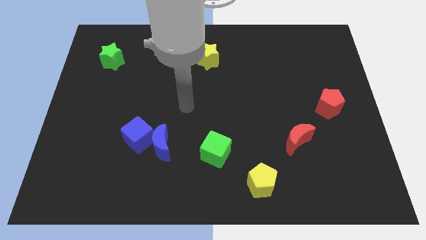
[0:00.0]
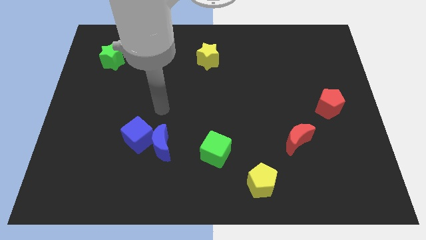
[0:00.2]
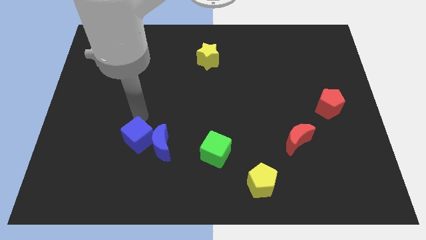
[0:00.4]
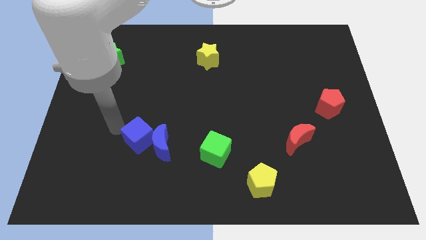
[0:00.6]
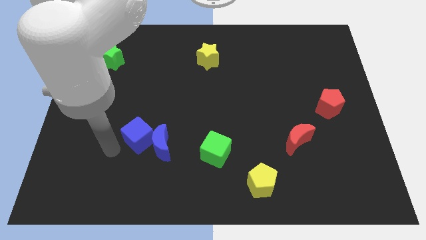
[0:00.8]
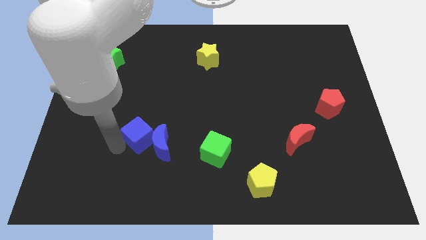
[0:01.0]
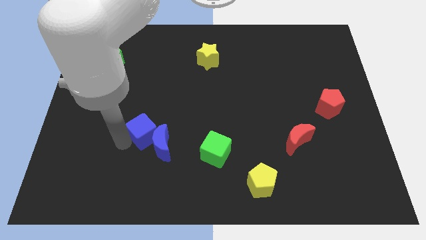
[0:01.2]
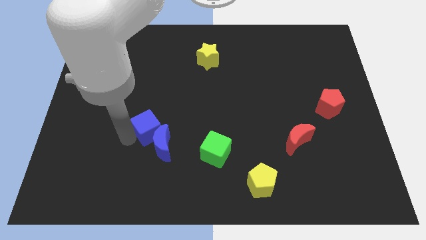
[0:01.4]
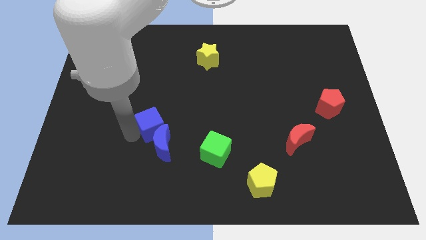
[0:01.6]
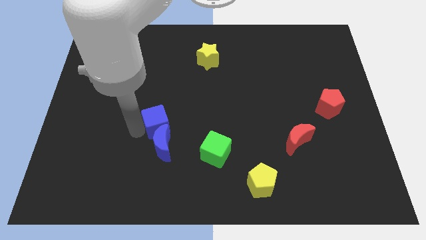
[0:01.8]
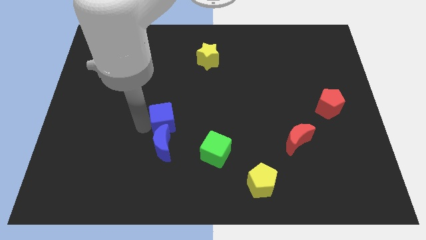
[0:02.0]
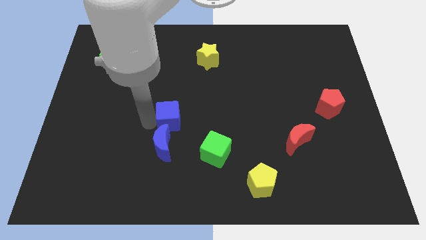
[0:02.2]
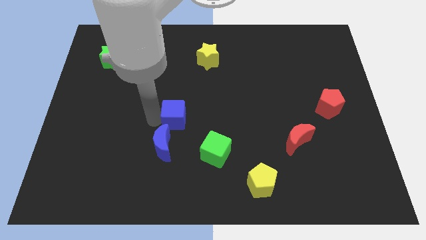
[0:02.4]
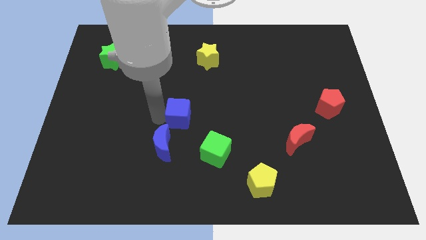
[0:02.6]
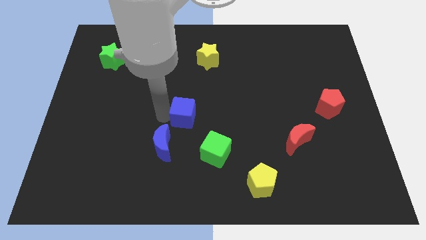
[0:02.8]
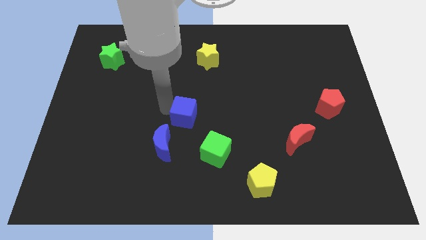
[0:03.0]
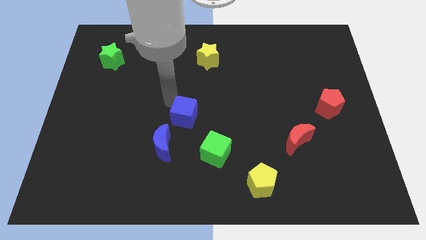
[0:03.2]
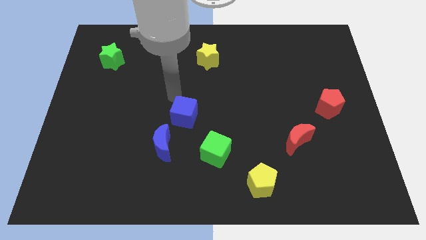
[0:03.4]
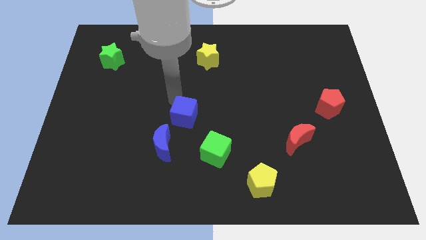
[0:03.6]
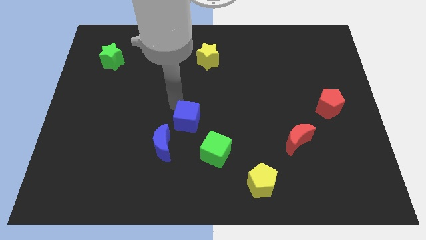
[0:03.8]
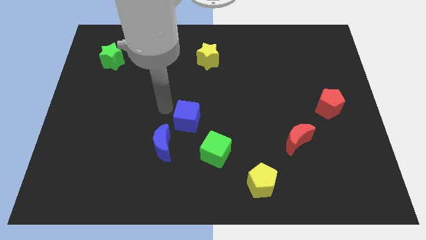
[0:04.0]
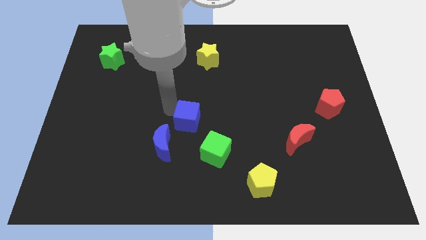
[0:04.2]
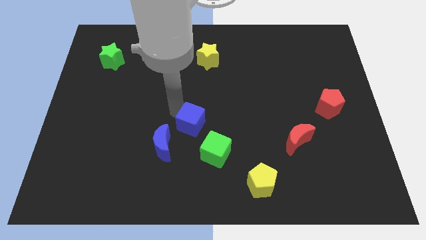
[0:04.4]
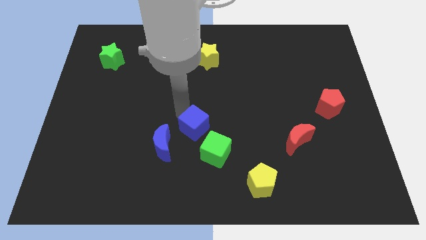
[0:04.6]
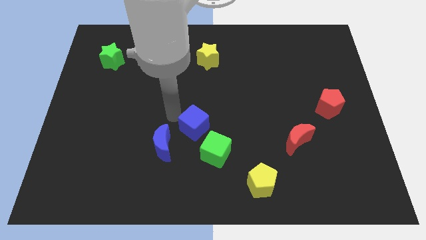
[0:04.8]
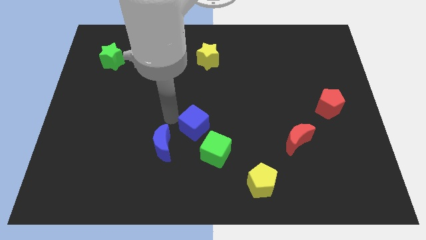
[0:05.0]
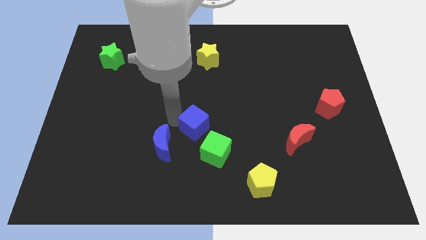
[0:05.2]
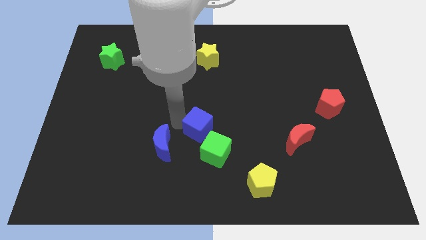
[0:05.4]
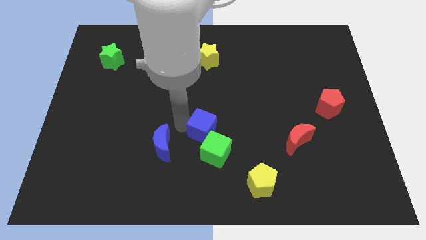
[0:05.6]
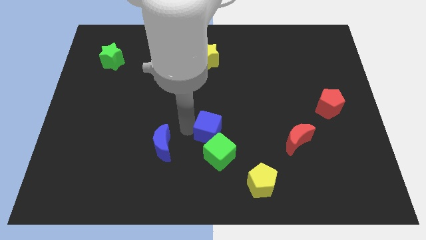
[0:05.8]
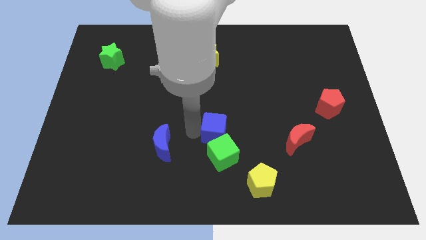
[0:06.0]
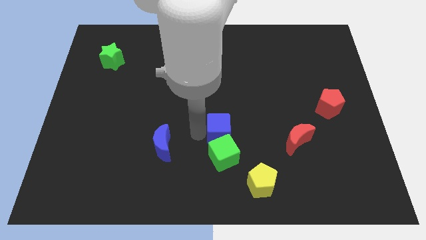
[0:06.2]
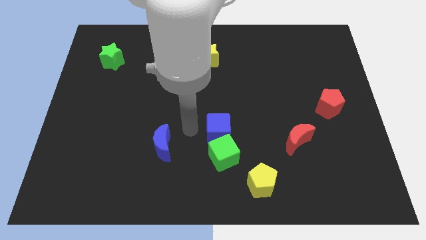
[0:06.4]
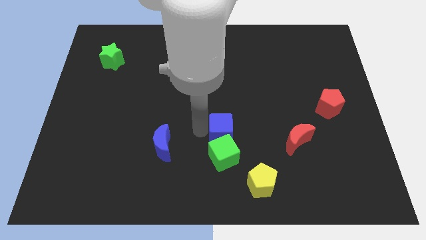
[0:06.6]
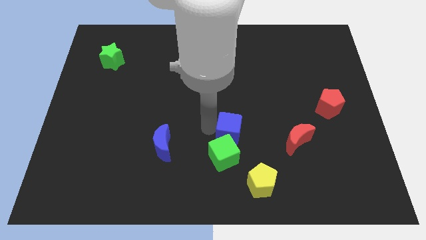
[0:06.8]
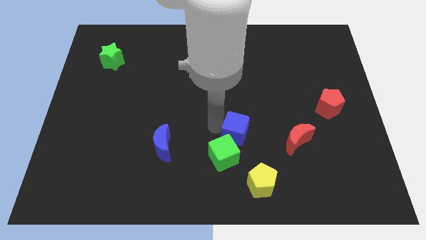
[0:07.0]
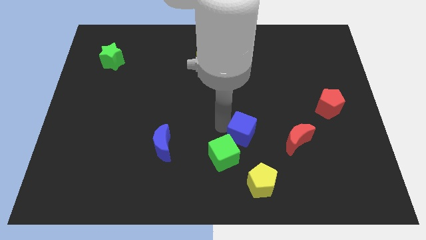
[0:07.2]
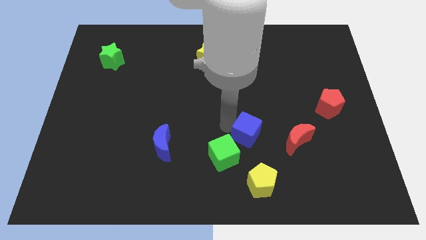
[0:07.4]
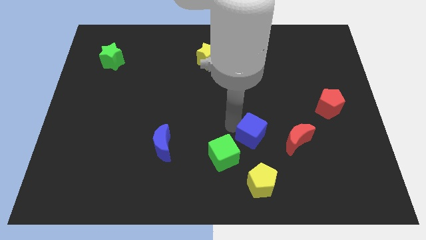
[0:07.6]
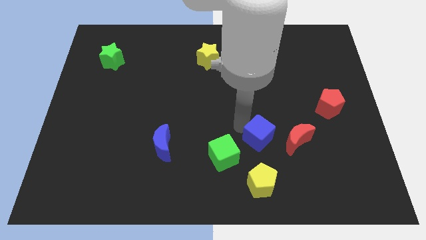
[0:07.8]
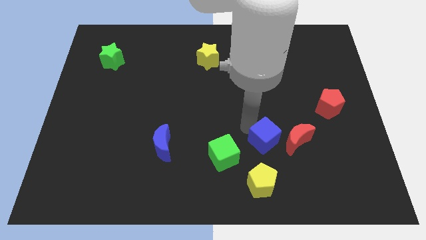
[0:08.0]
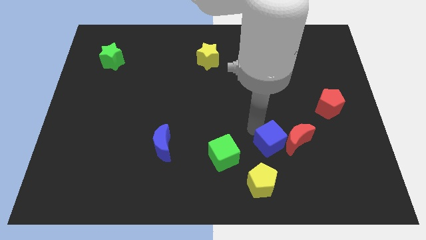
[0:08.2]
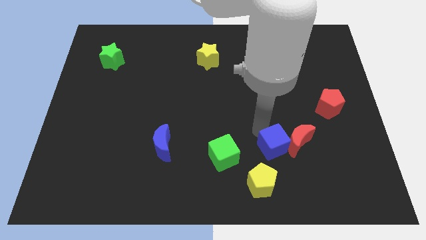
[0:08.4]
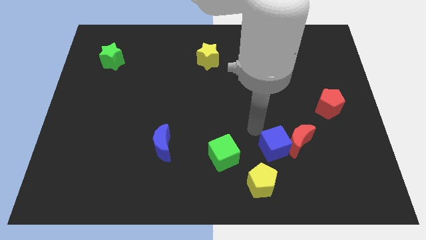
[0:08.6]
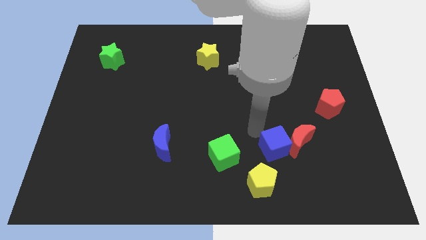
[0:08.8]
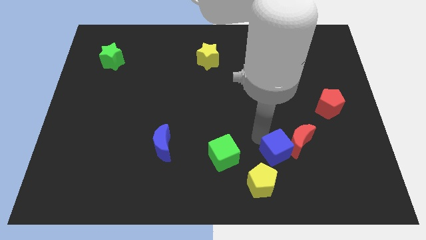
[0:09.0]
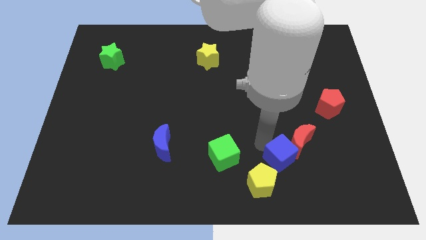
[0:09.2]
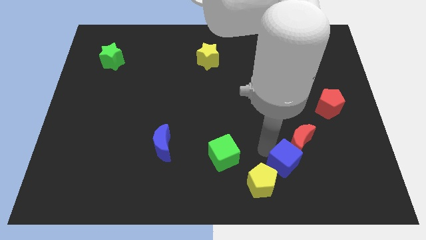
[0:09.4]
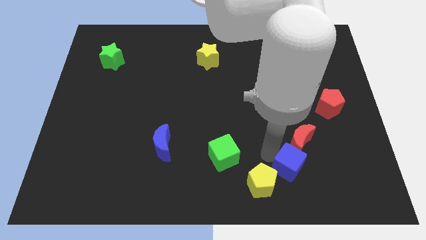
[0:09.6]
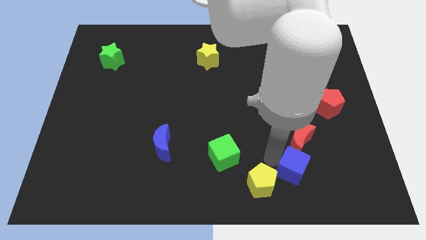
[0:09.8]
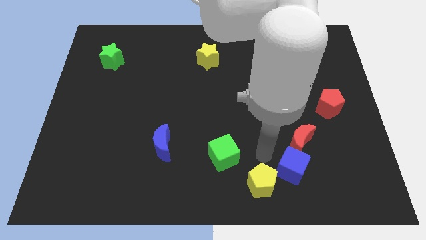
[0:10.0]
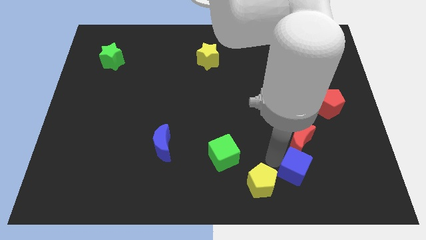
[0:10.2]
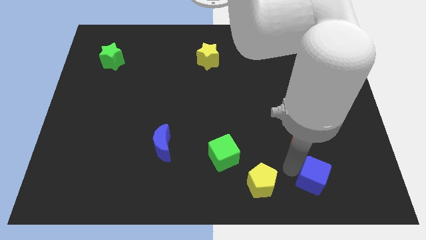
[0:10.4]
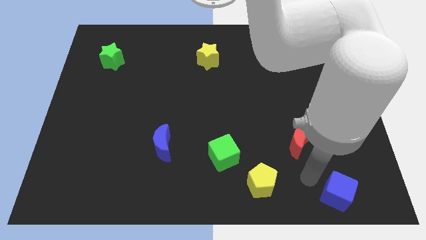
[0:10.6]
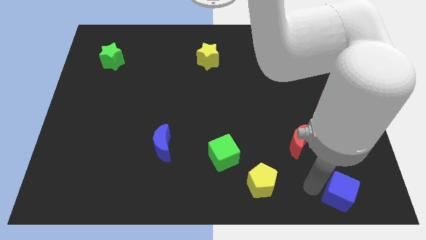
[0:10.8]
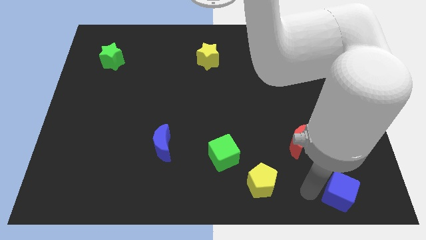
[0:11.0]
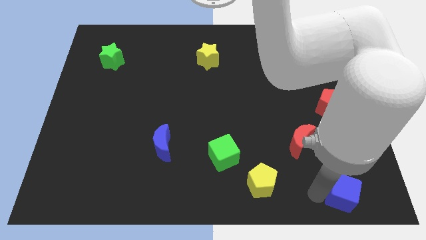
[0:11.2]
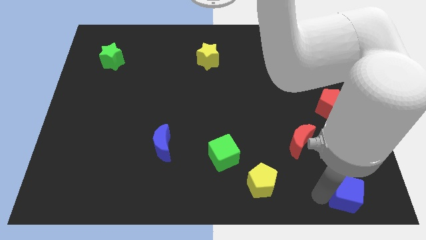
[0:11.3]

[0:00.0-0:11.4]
move the blue cube to the bottom right corner

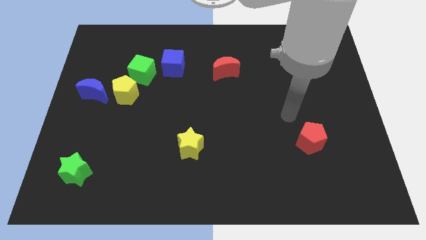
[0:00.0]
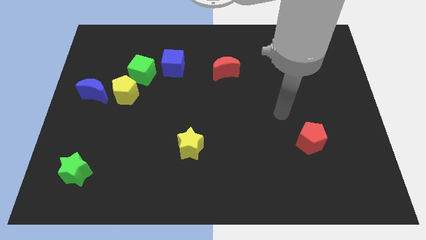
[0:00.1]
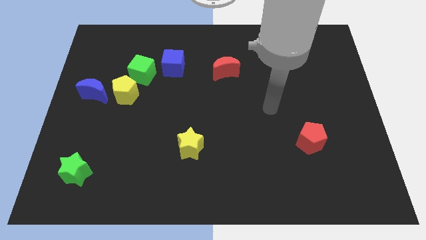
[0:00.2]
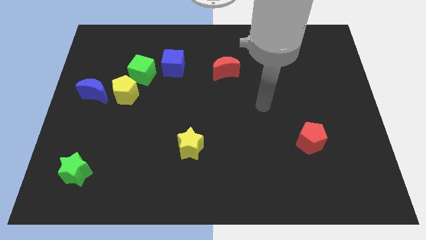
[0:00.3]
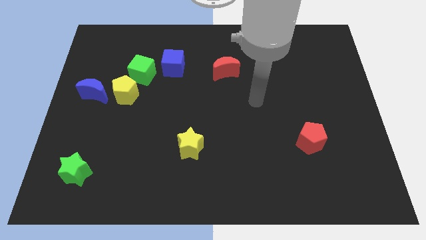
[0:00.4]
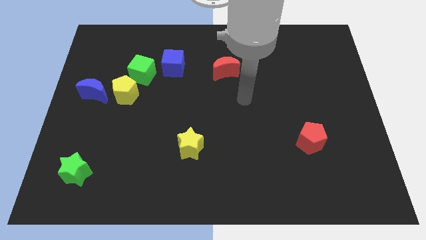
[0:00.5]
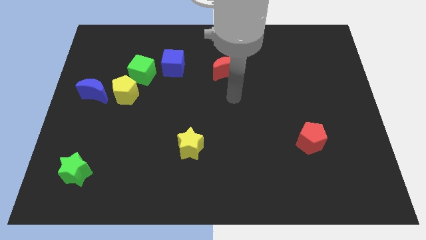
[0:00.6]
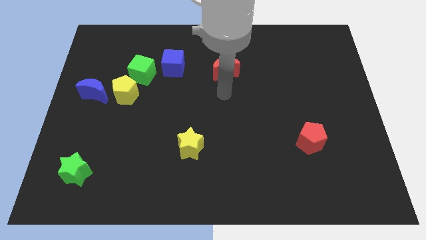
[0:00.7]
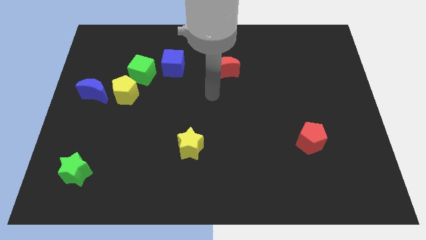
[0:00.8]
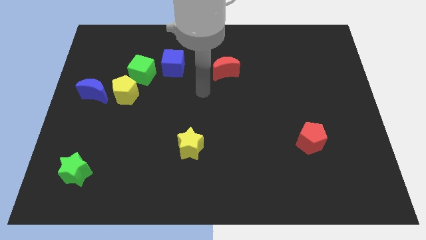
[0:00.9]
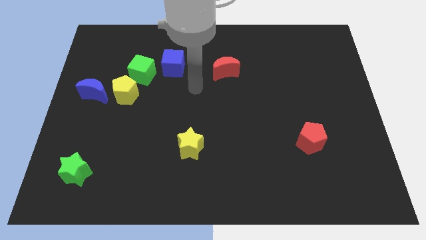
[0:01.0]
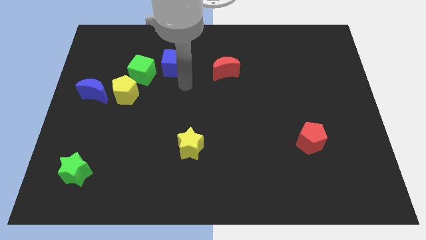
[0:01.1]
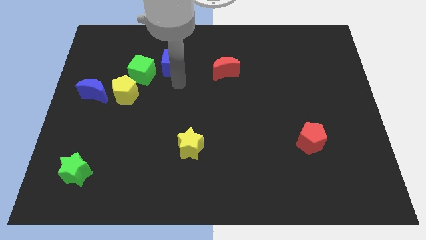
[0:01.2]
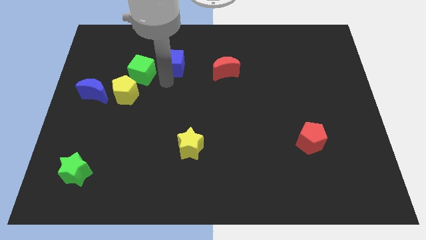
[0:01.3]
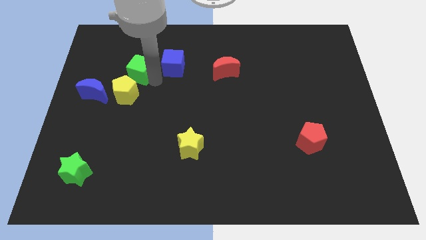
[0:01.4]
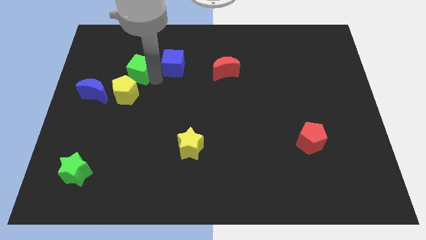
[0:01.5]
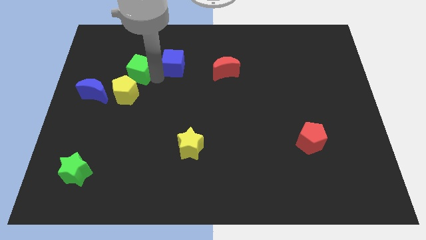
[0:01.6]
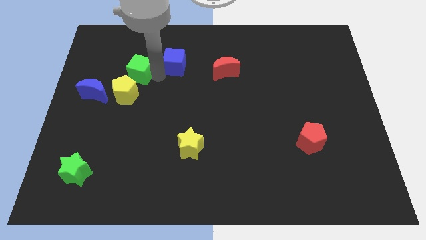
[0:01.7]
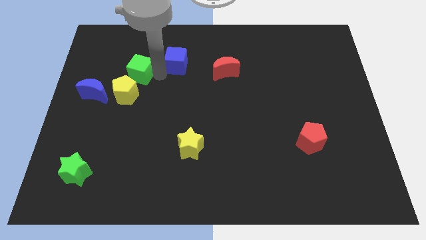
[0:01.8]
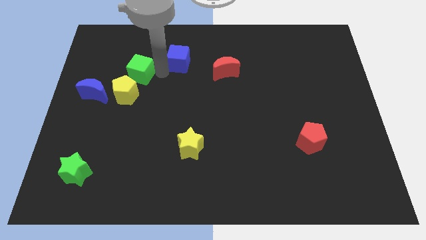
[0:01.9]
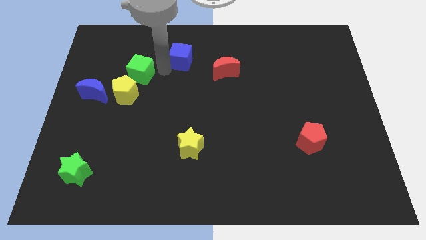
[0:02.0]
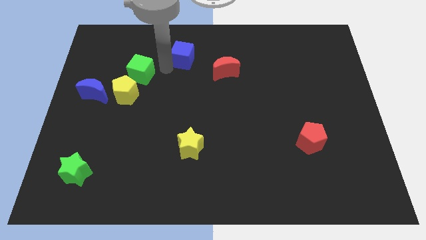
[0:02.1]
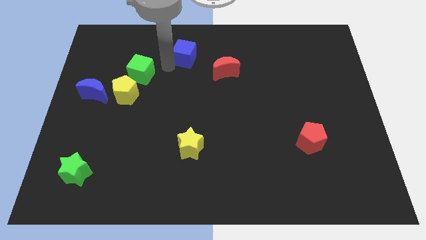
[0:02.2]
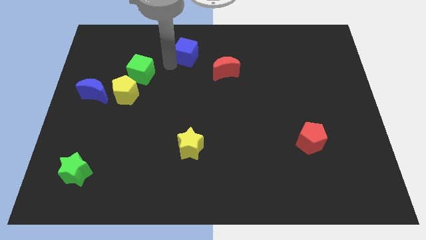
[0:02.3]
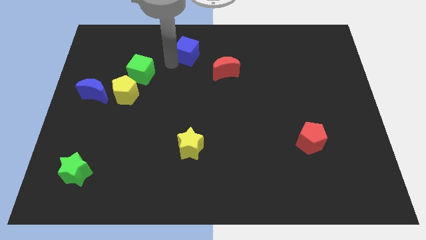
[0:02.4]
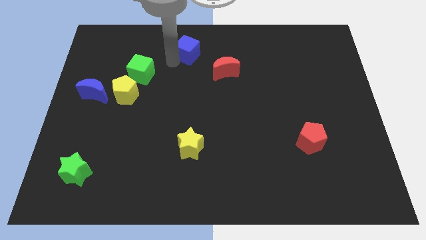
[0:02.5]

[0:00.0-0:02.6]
put the blue cube to the top side
